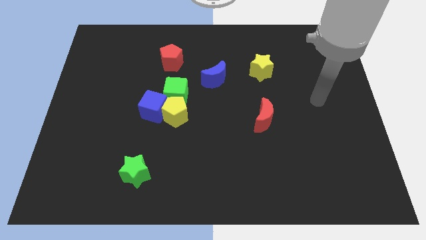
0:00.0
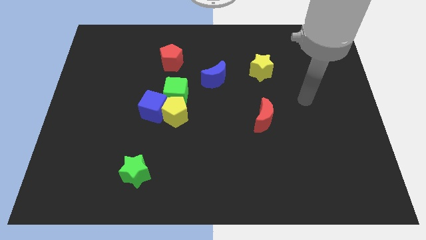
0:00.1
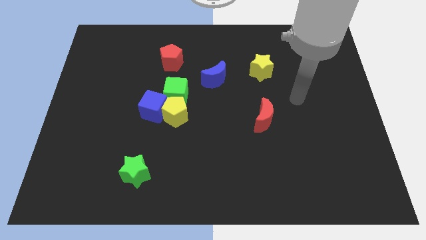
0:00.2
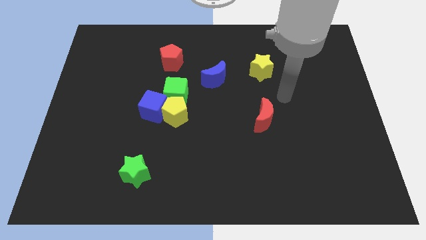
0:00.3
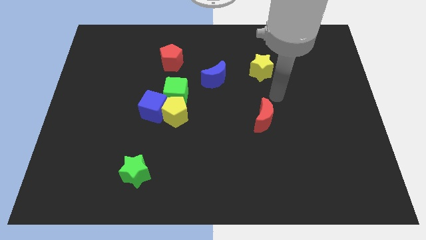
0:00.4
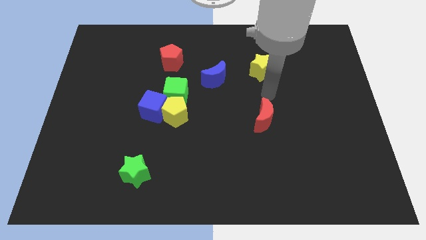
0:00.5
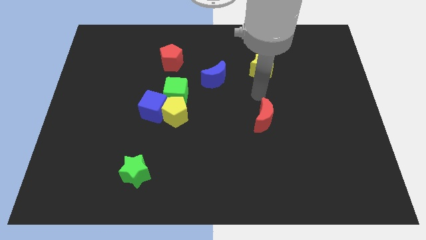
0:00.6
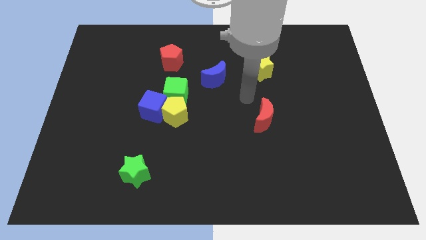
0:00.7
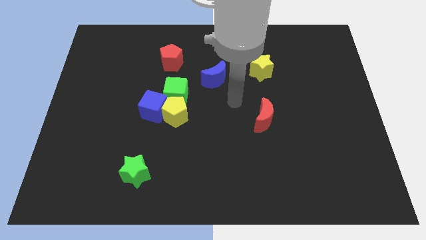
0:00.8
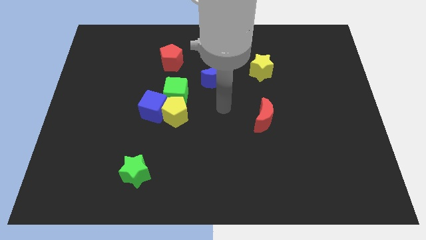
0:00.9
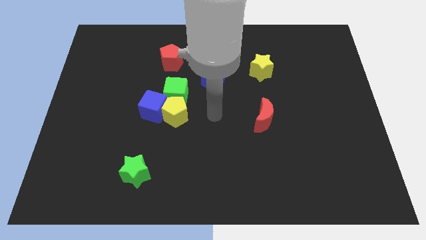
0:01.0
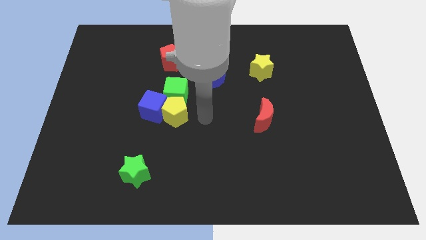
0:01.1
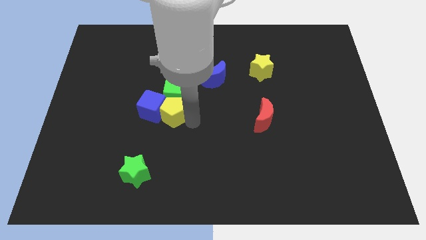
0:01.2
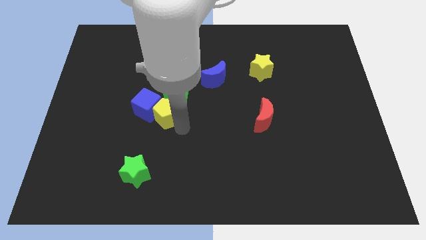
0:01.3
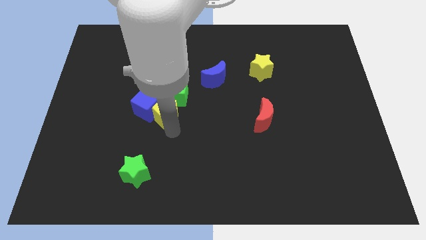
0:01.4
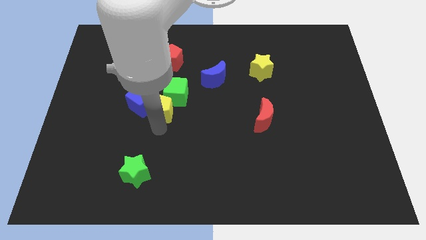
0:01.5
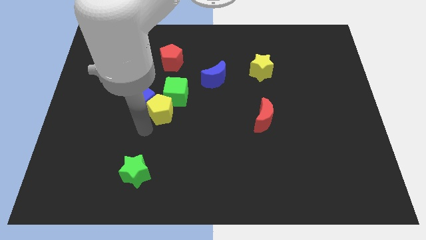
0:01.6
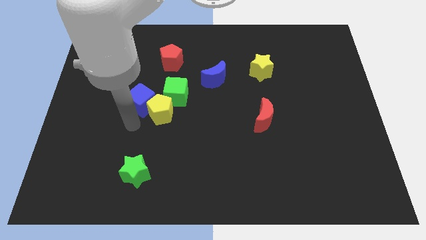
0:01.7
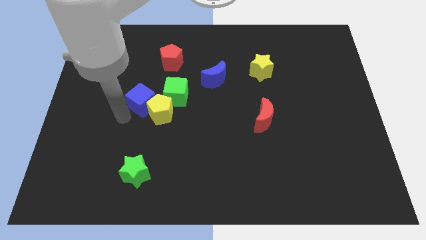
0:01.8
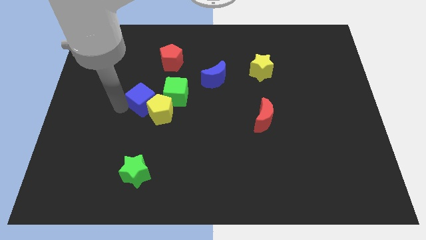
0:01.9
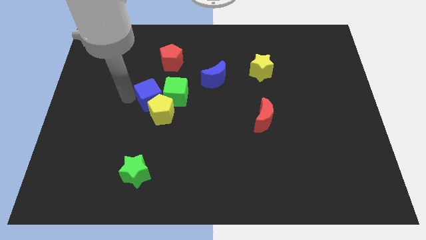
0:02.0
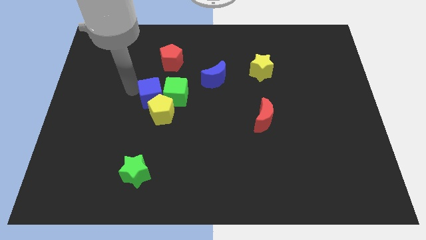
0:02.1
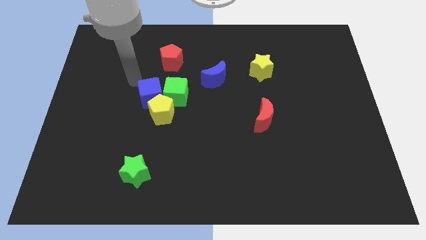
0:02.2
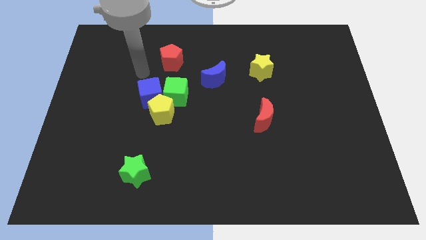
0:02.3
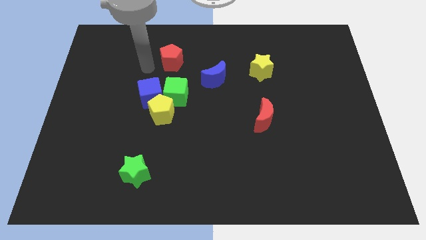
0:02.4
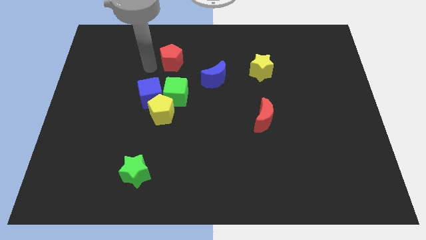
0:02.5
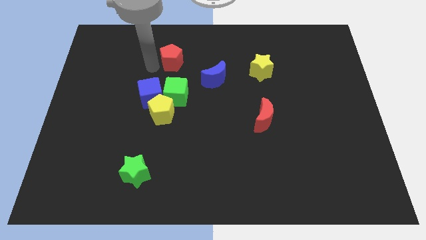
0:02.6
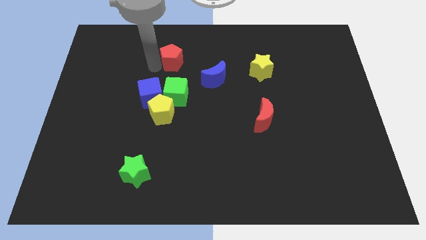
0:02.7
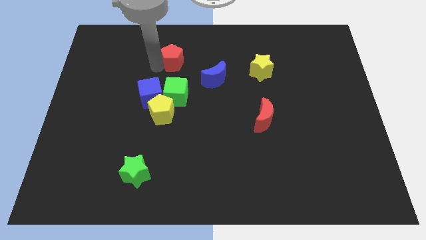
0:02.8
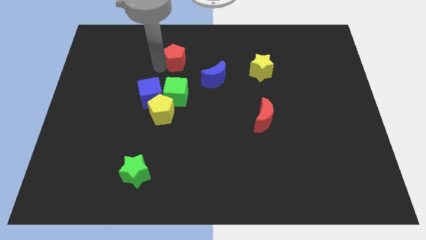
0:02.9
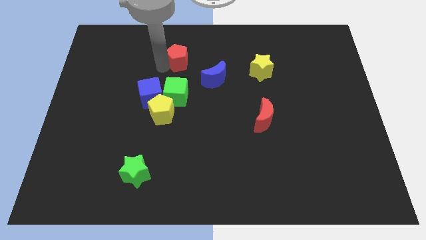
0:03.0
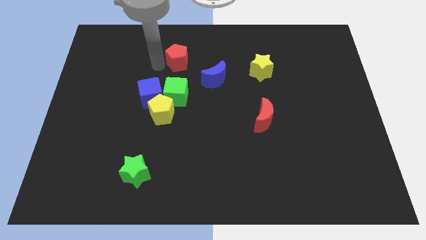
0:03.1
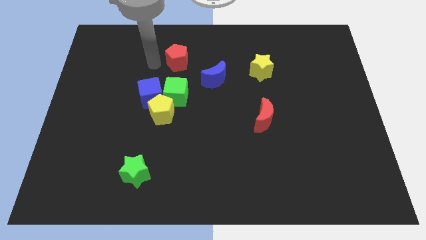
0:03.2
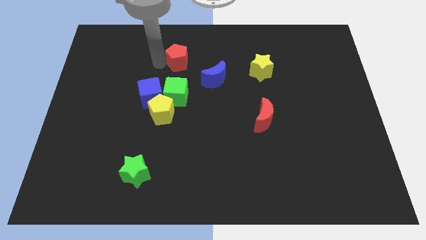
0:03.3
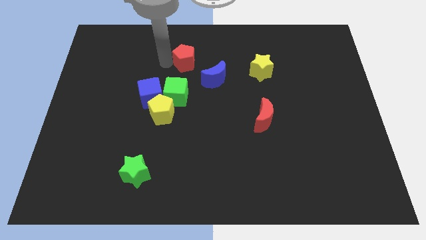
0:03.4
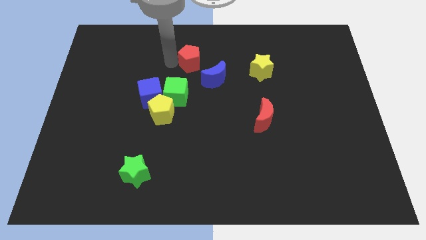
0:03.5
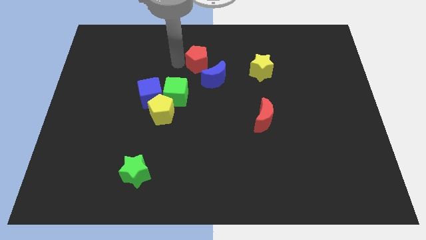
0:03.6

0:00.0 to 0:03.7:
push the red pentagon a little bit right

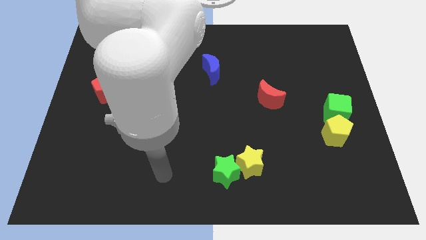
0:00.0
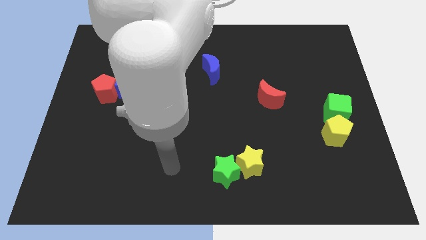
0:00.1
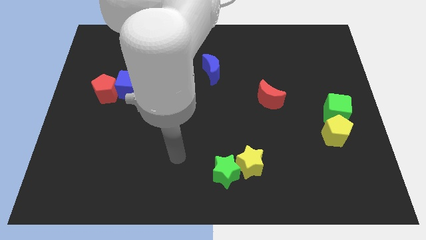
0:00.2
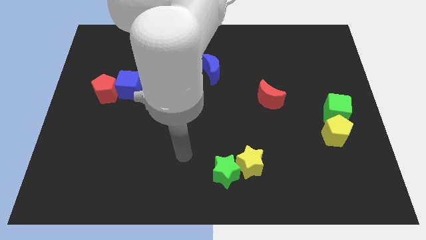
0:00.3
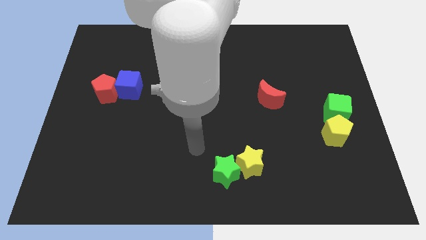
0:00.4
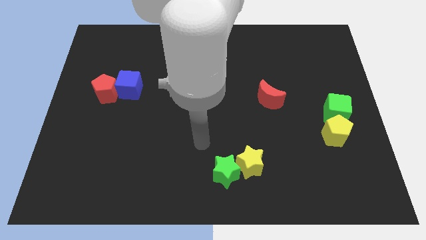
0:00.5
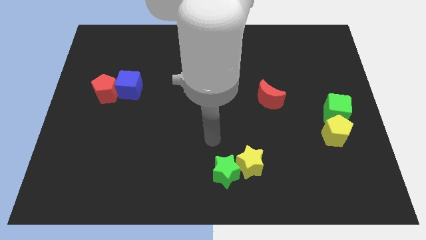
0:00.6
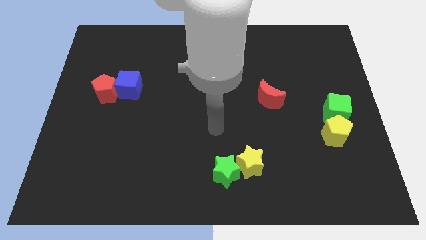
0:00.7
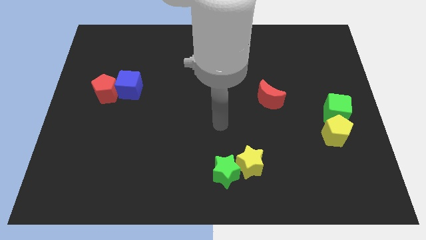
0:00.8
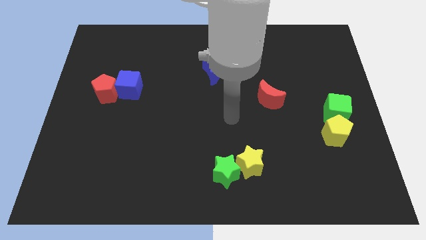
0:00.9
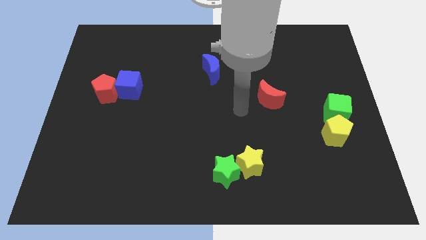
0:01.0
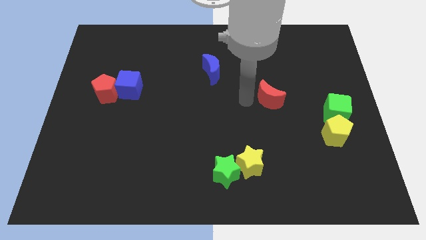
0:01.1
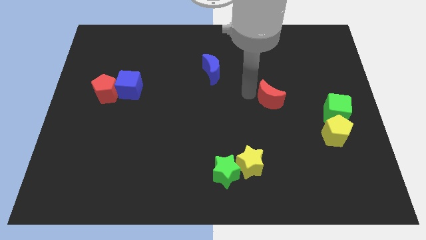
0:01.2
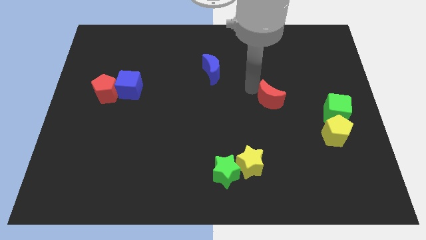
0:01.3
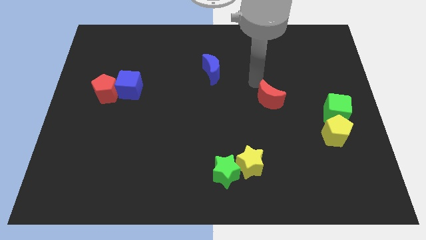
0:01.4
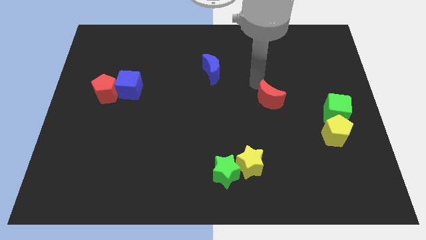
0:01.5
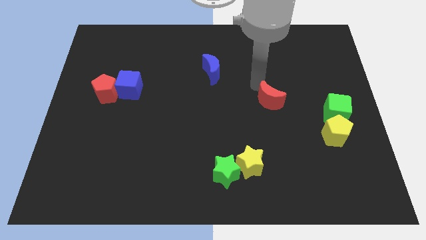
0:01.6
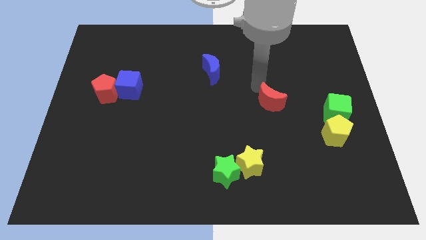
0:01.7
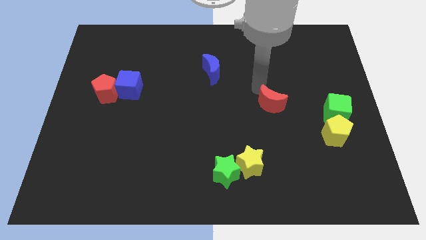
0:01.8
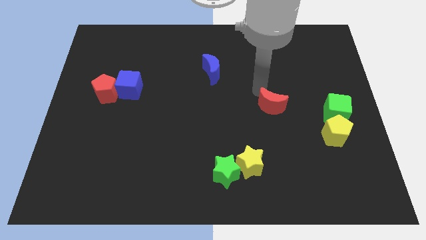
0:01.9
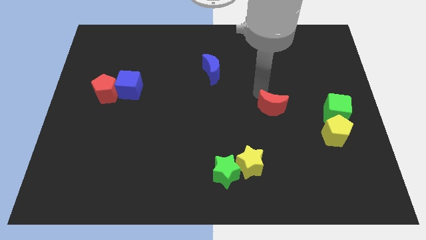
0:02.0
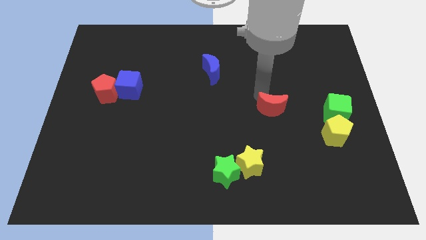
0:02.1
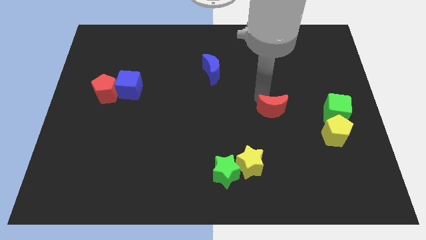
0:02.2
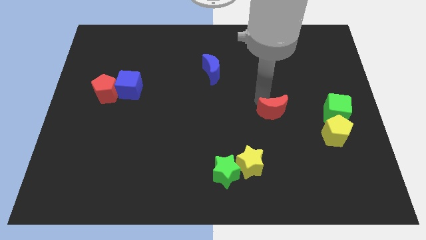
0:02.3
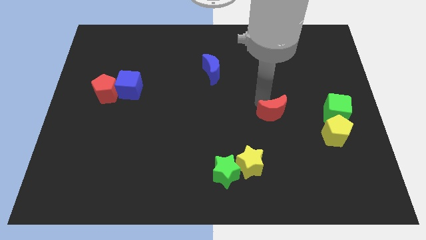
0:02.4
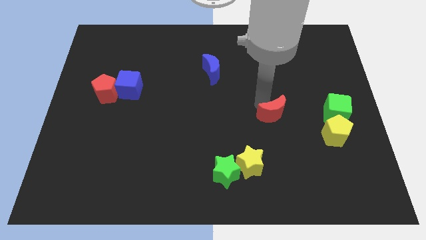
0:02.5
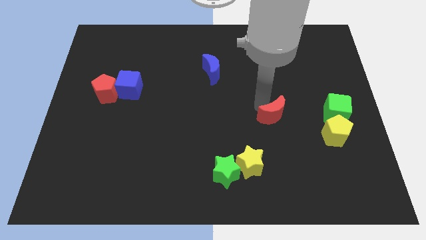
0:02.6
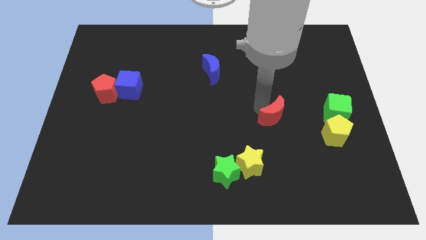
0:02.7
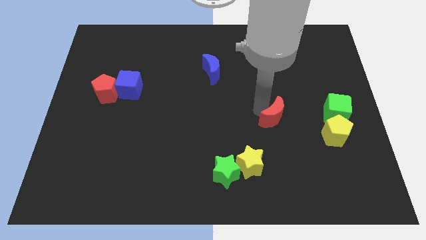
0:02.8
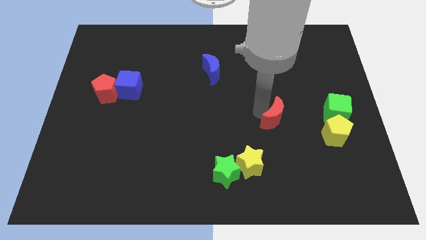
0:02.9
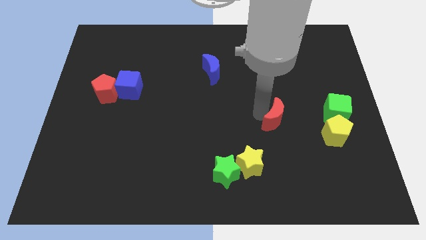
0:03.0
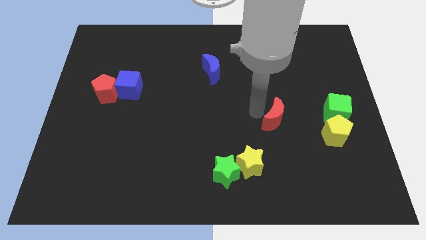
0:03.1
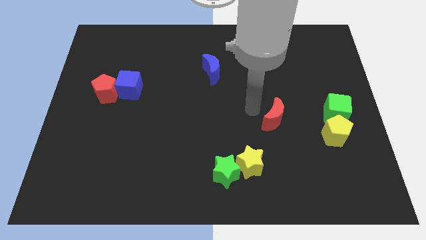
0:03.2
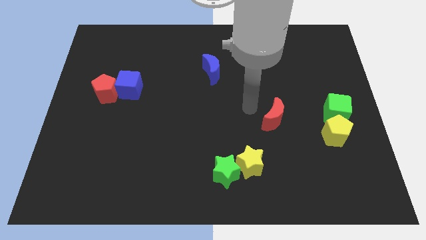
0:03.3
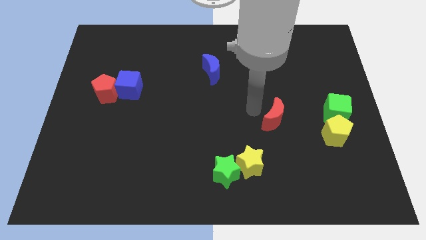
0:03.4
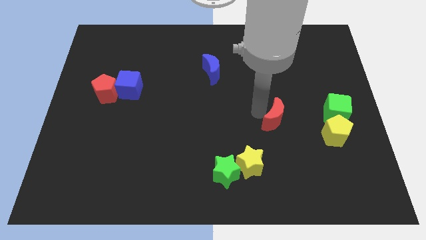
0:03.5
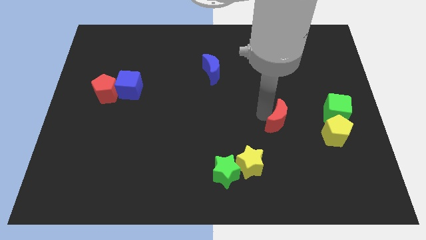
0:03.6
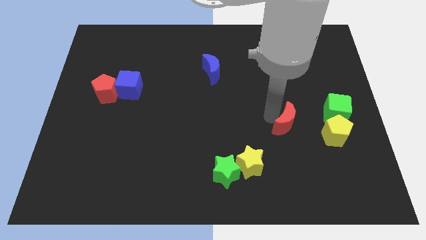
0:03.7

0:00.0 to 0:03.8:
slide the red moon a little diagonally downwards and to the right

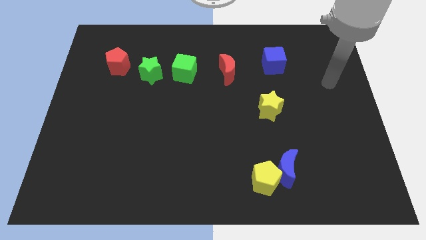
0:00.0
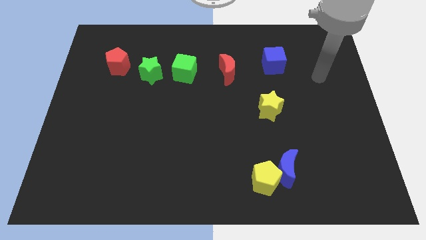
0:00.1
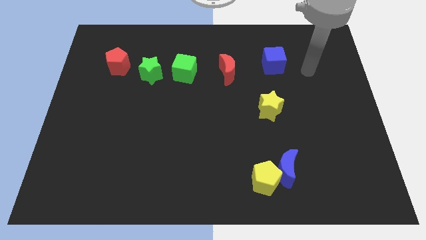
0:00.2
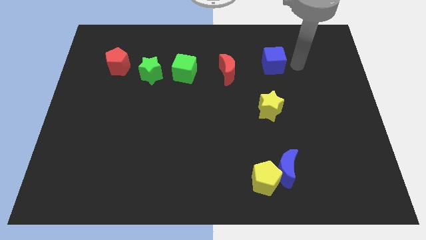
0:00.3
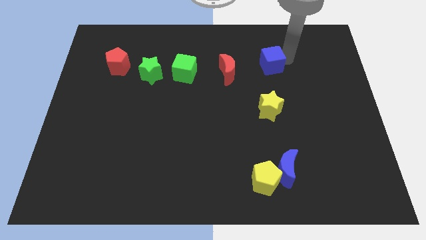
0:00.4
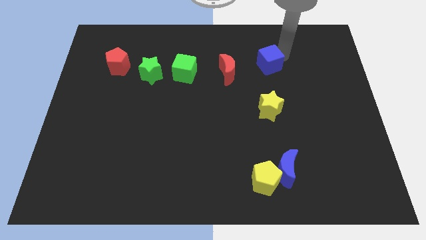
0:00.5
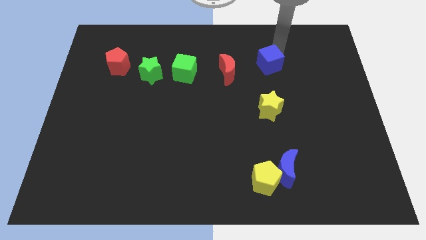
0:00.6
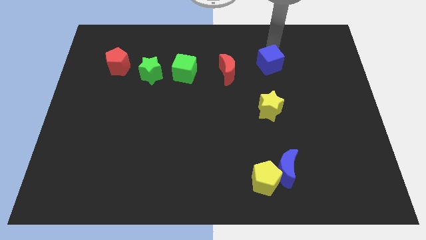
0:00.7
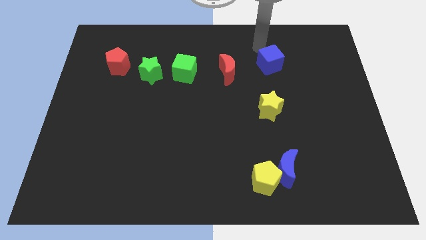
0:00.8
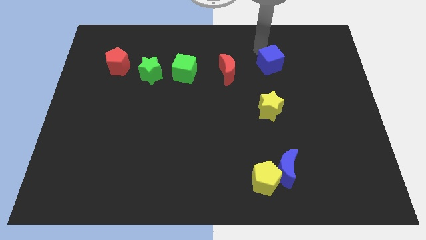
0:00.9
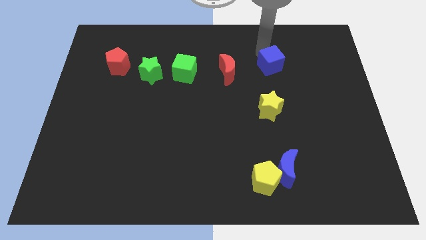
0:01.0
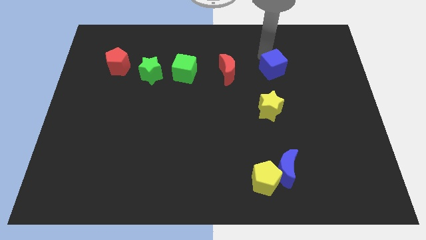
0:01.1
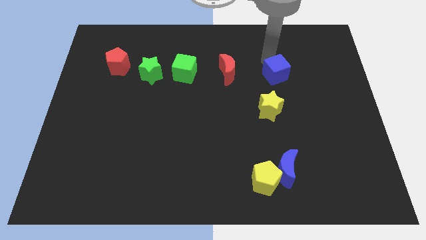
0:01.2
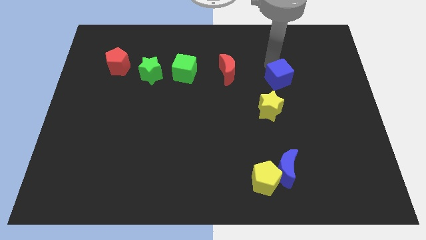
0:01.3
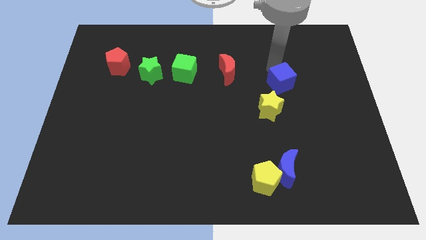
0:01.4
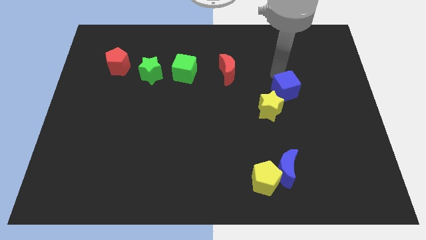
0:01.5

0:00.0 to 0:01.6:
push the blue cube down a little bit
